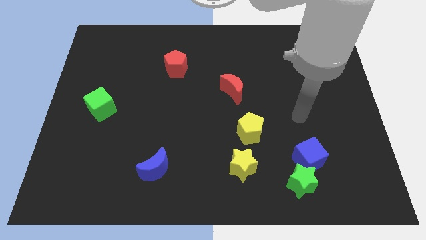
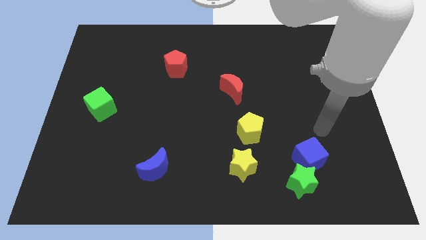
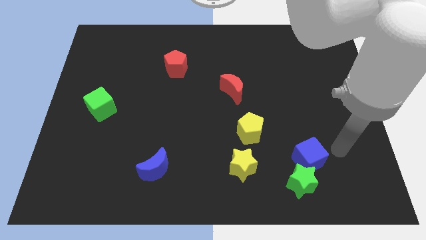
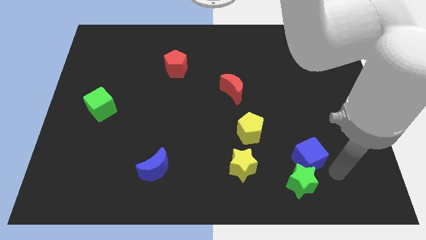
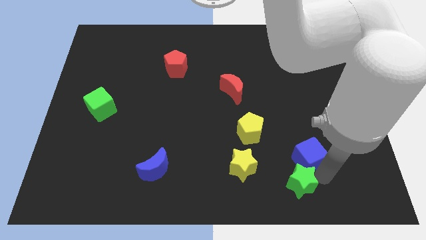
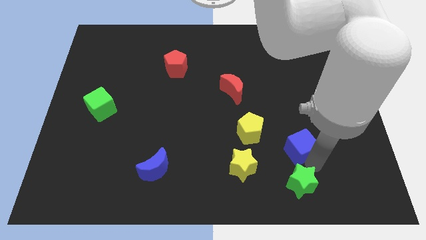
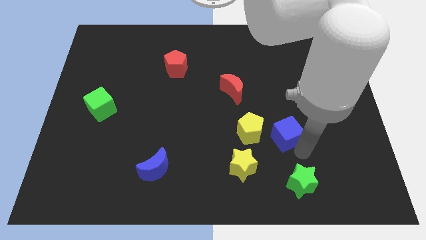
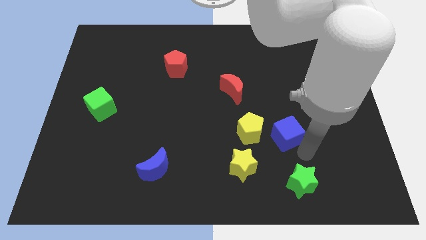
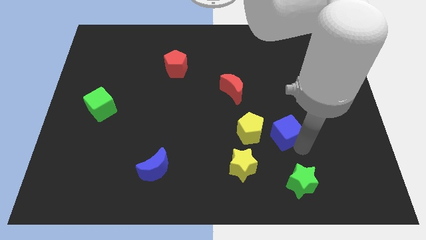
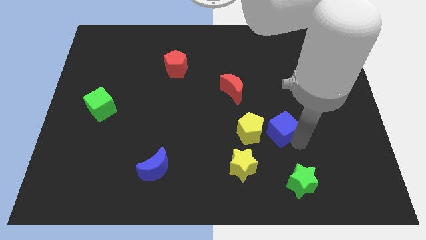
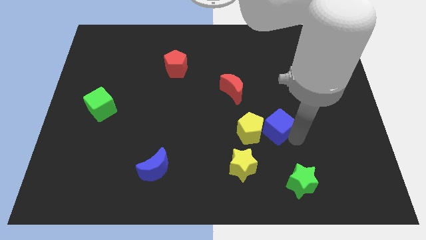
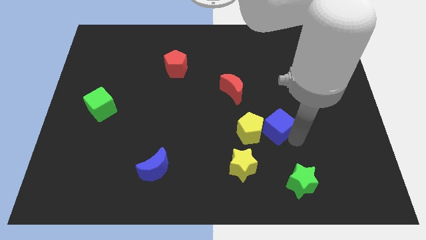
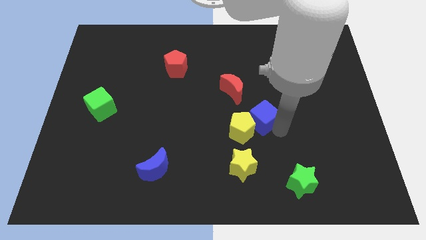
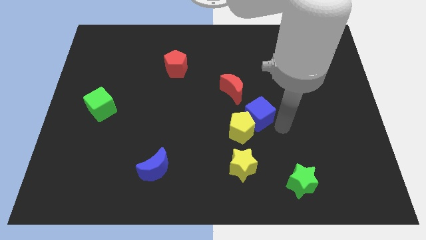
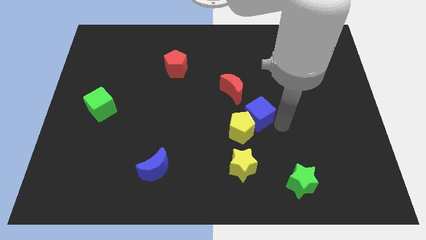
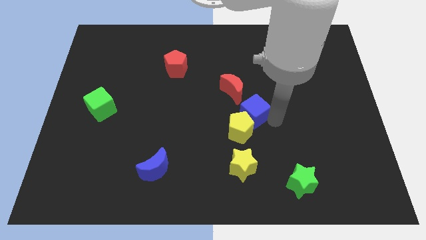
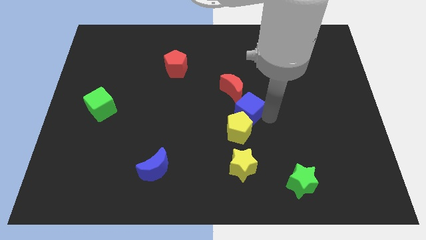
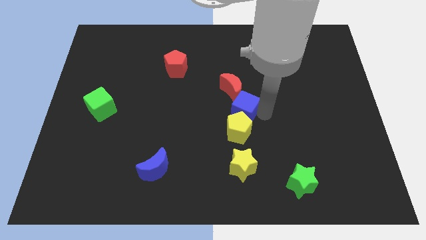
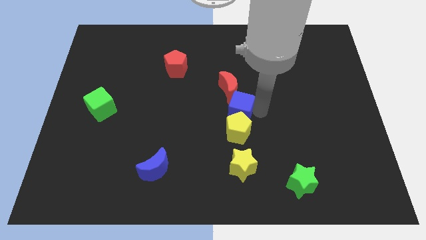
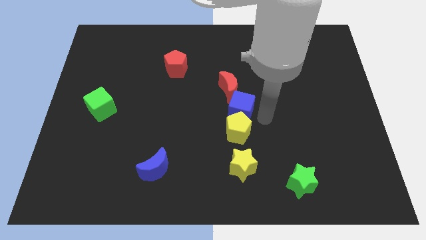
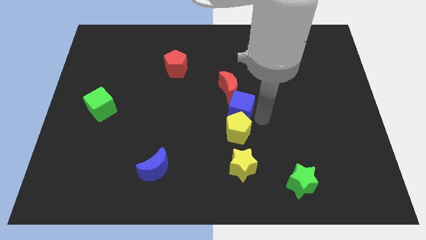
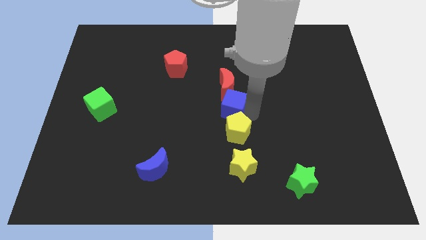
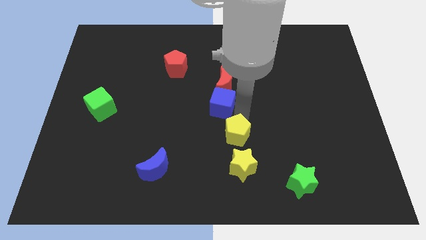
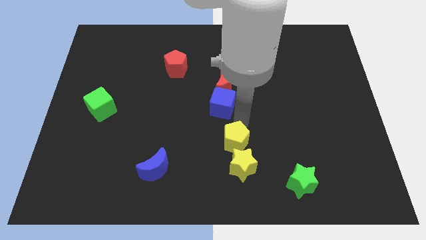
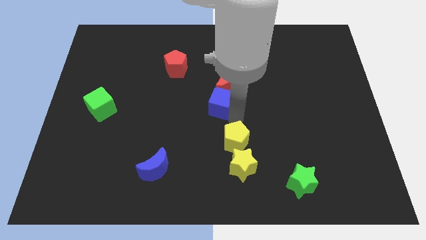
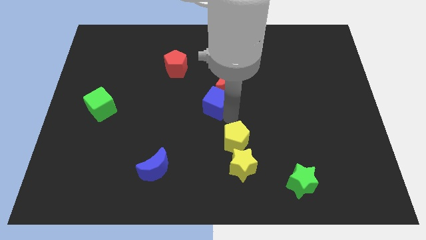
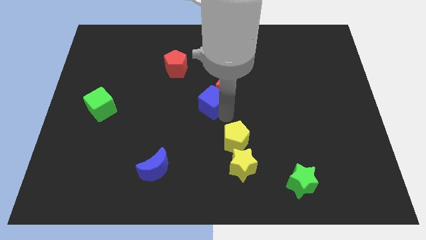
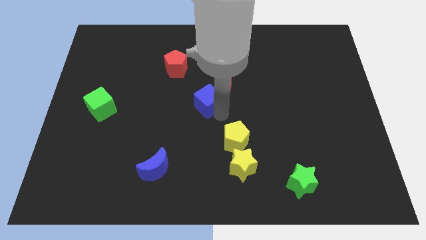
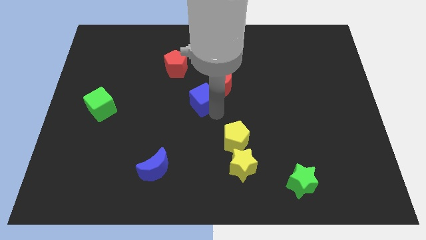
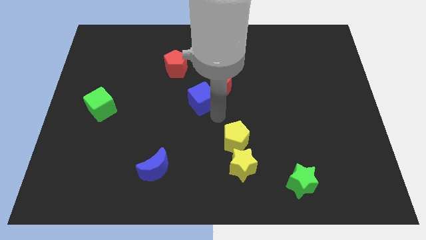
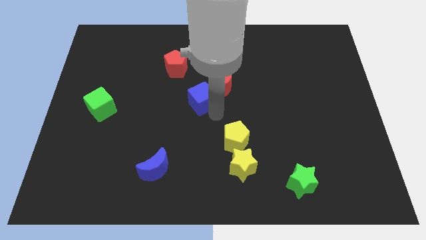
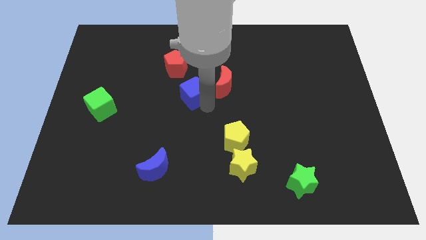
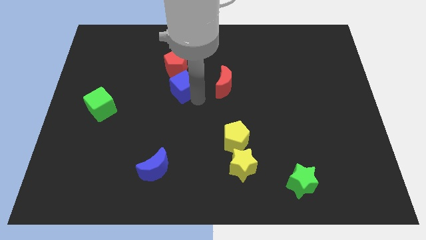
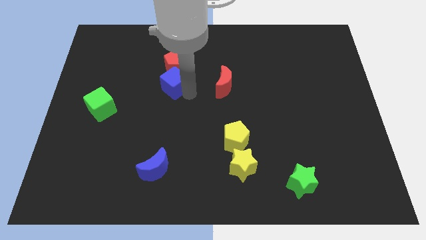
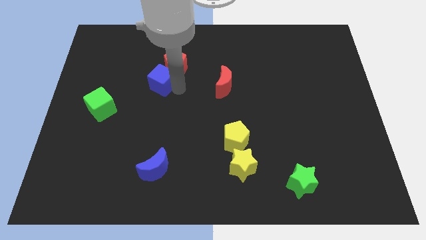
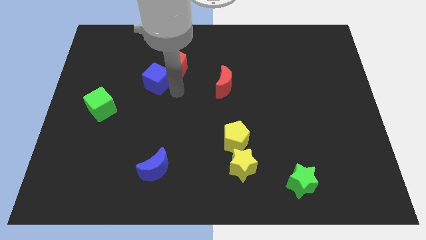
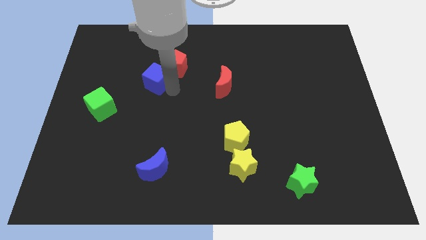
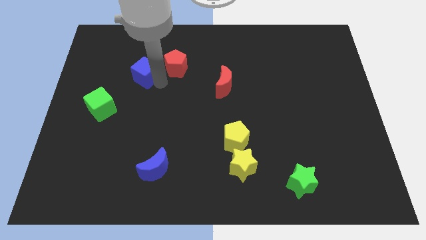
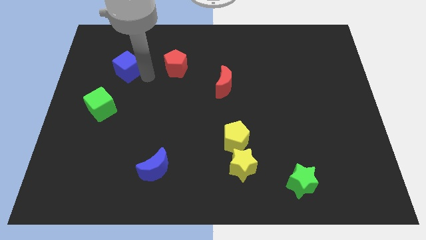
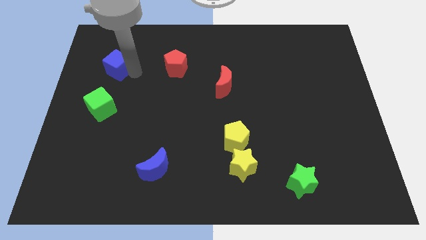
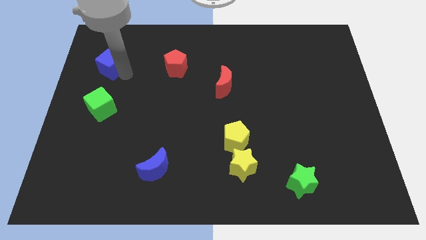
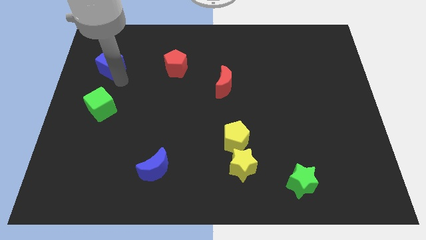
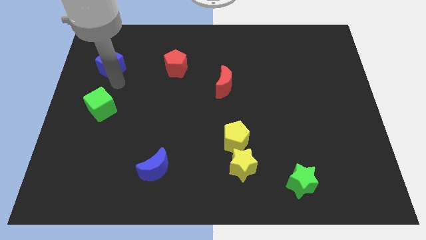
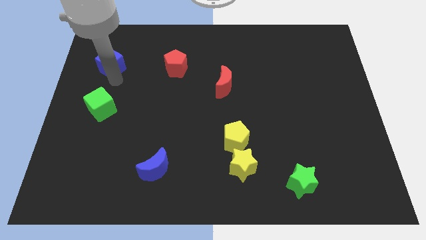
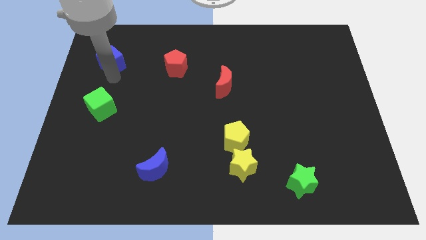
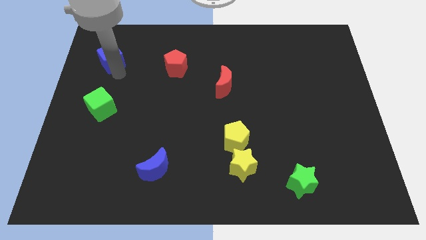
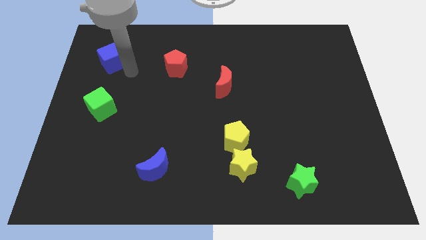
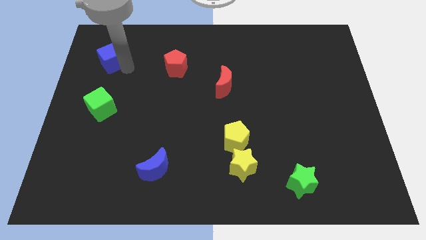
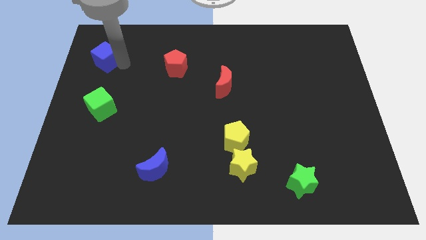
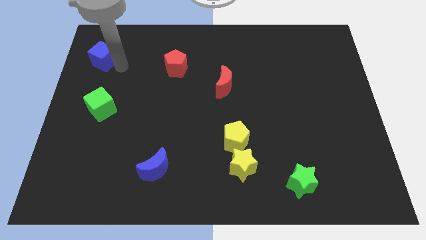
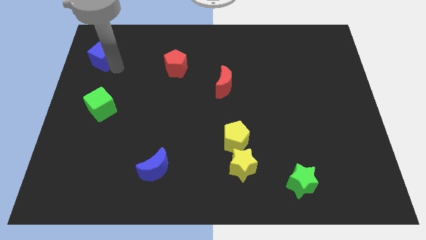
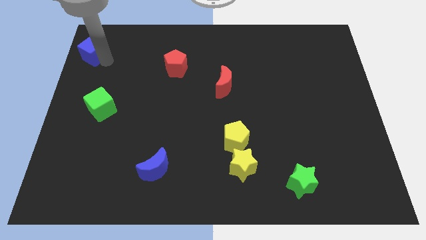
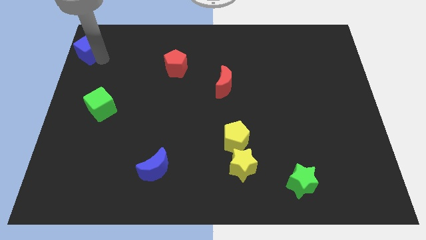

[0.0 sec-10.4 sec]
slide the blue cube to the top left

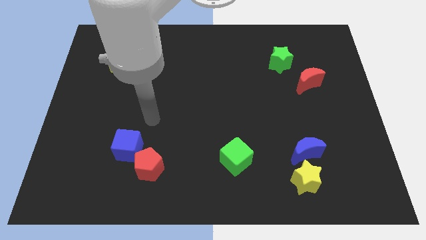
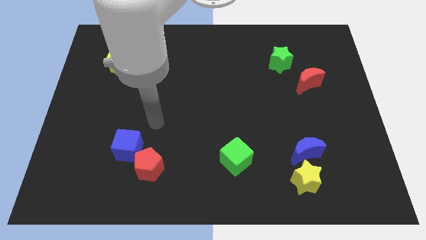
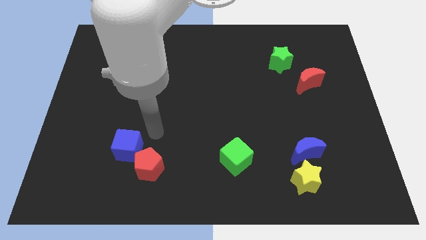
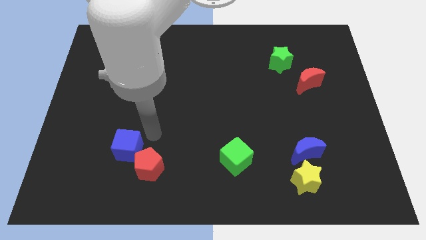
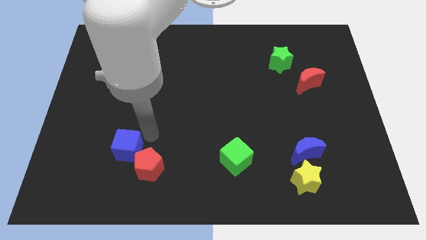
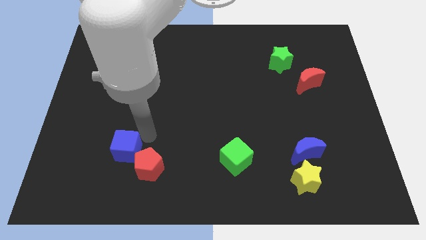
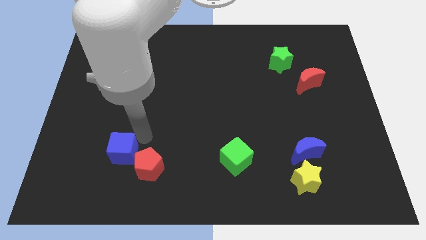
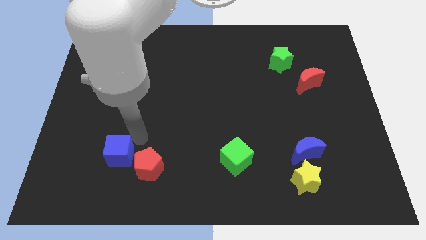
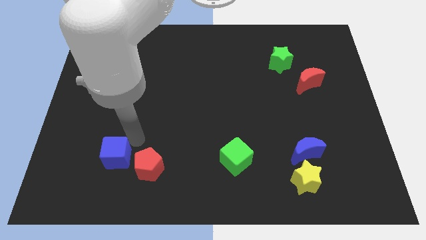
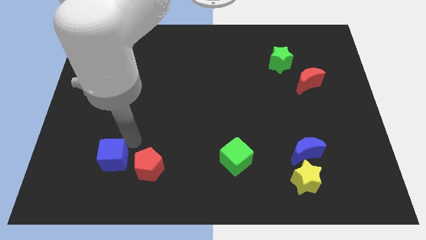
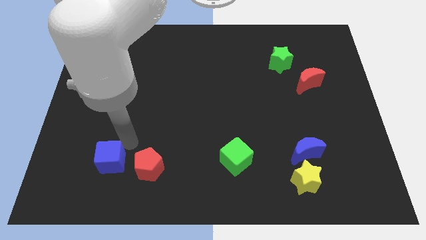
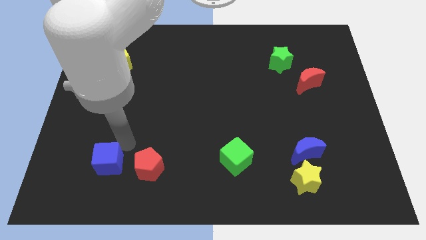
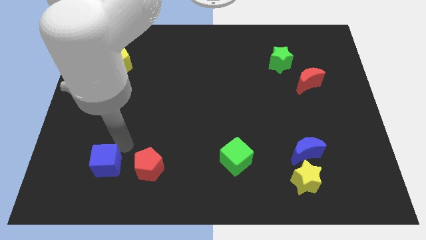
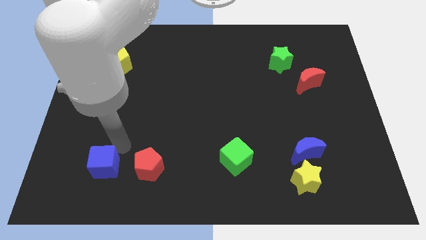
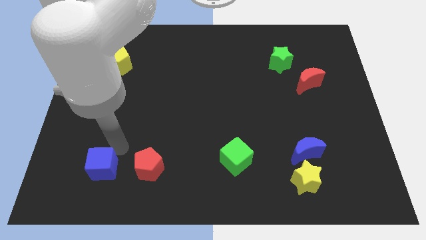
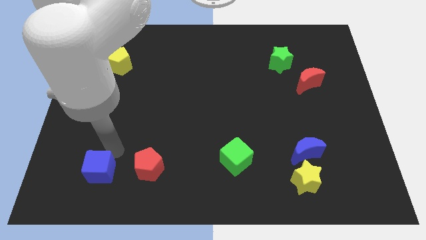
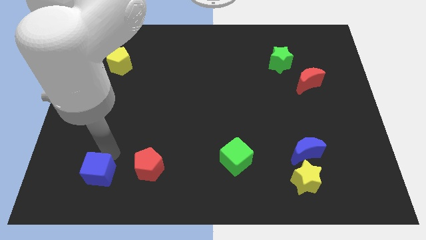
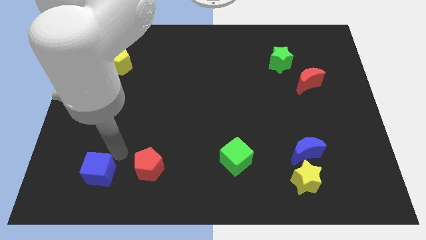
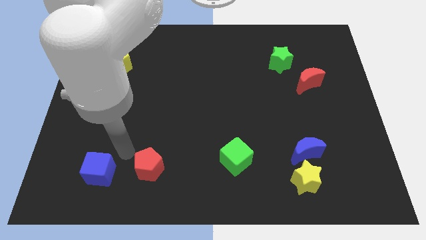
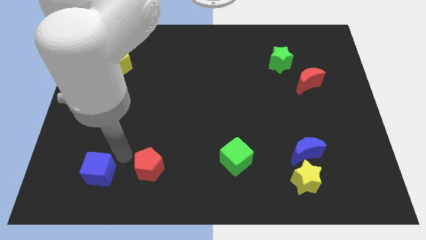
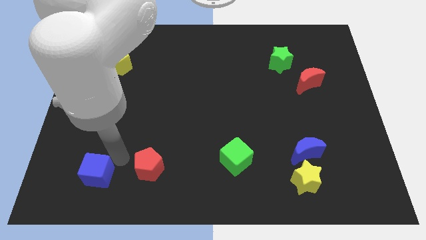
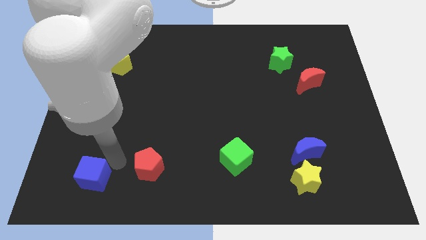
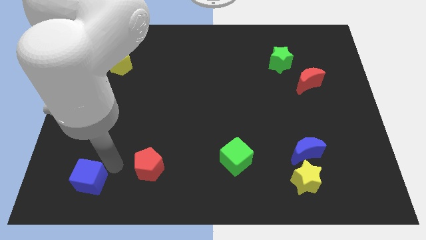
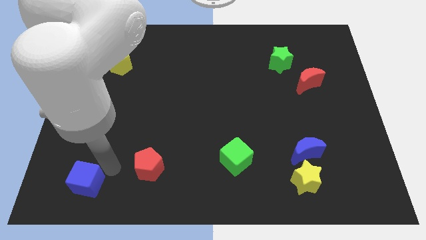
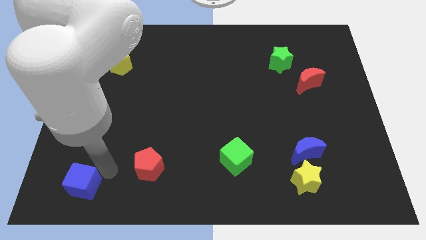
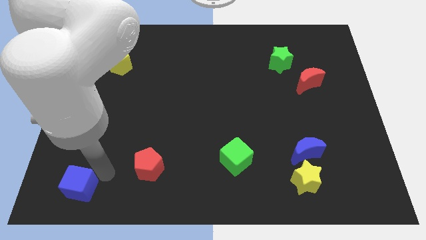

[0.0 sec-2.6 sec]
push the blue cube to the bottom left

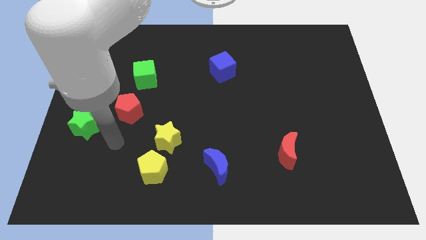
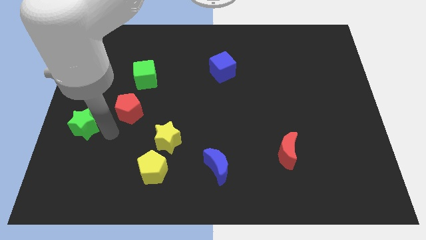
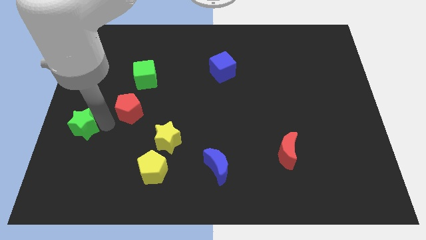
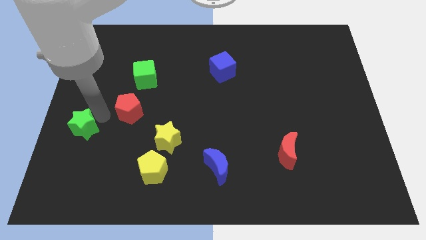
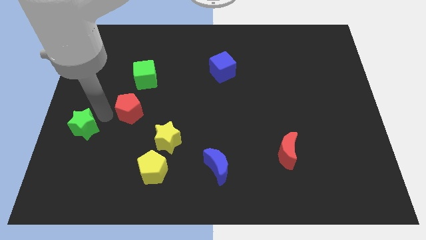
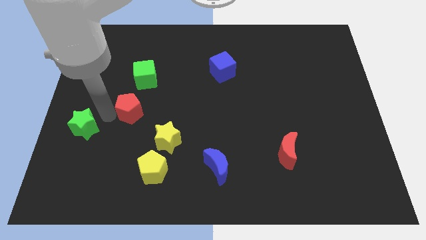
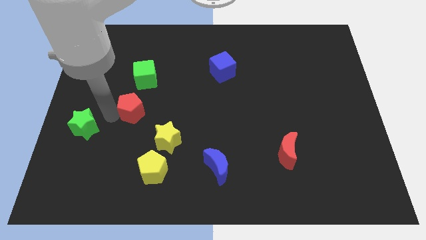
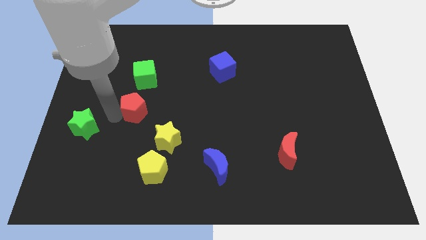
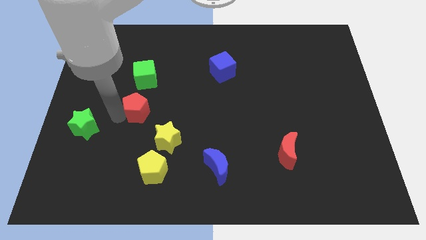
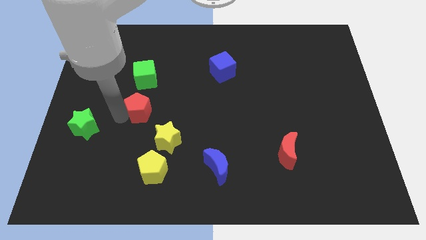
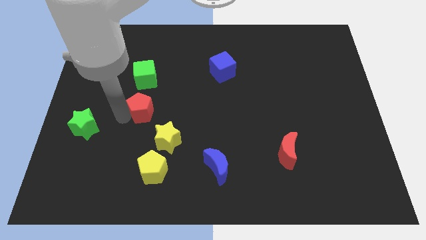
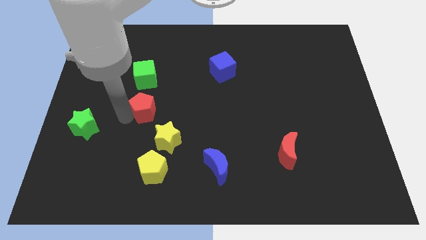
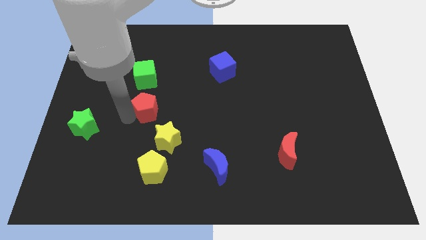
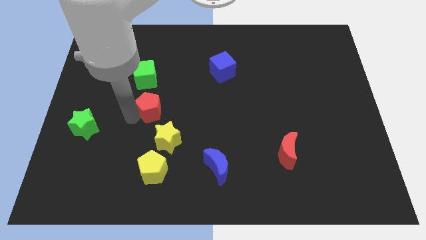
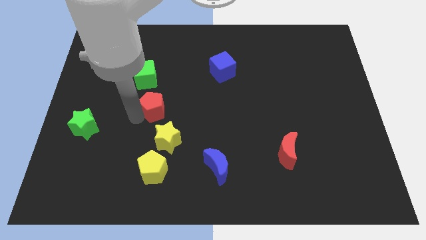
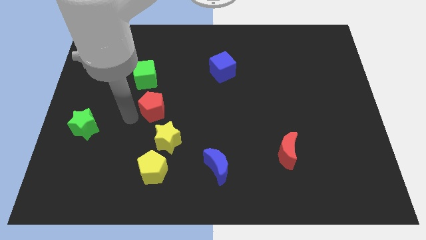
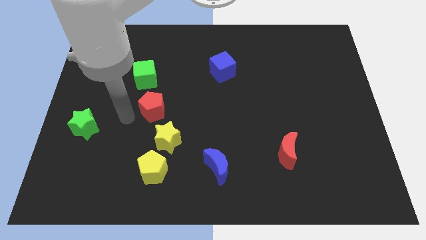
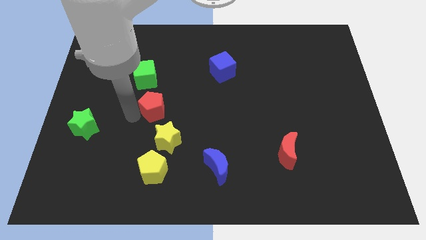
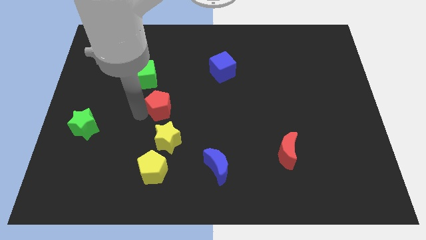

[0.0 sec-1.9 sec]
push the red pentagon to the center of the board
